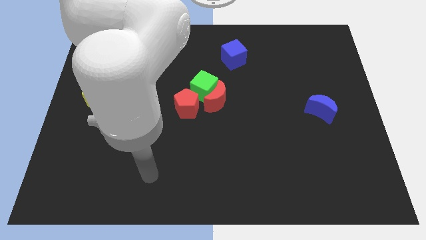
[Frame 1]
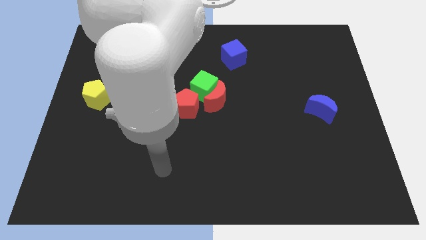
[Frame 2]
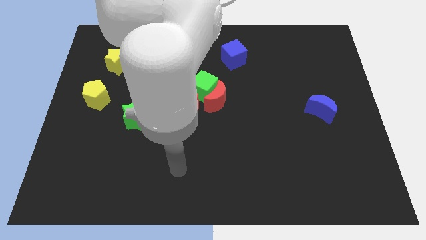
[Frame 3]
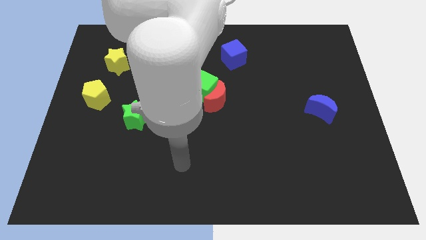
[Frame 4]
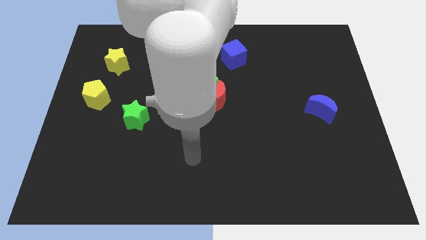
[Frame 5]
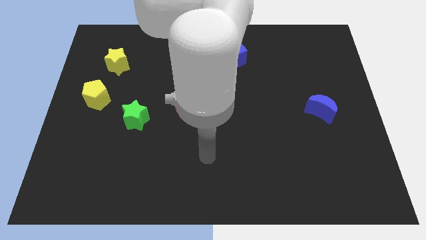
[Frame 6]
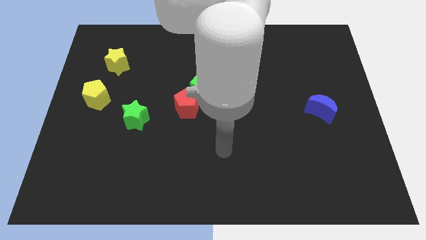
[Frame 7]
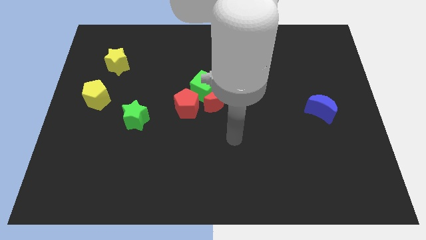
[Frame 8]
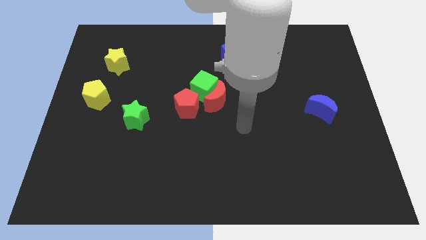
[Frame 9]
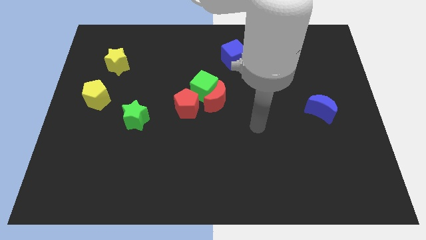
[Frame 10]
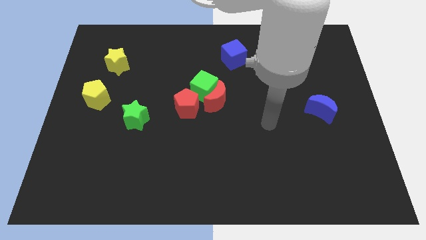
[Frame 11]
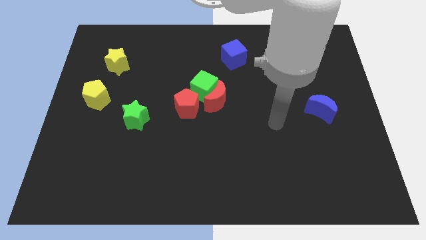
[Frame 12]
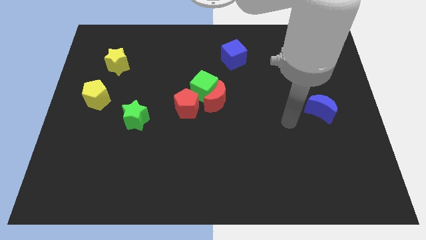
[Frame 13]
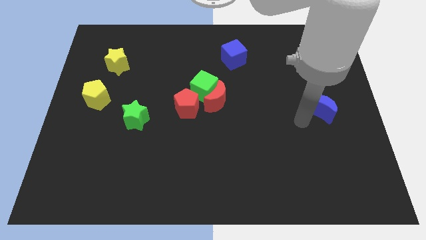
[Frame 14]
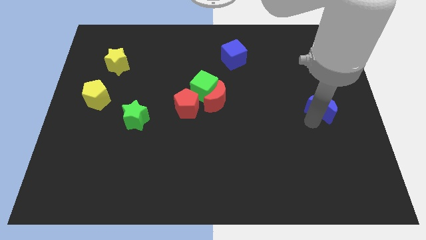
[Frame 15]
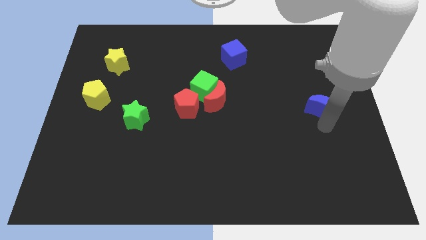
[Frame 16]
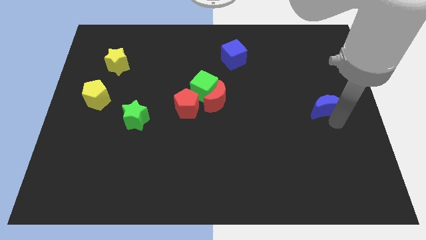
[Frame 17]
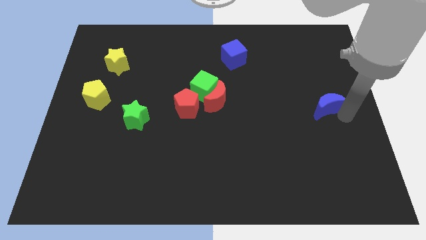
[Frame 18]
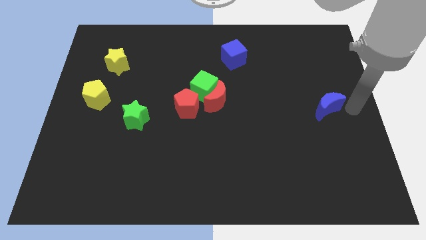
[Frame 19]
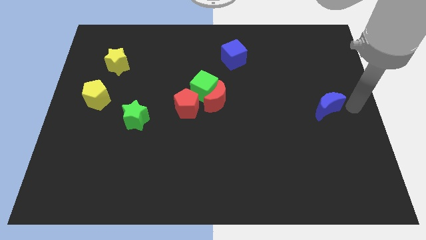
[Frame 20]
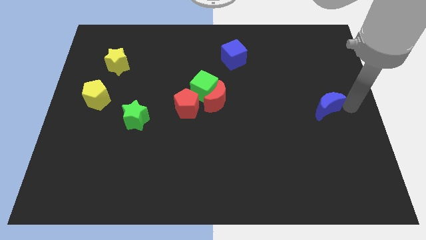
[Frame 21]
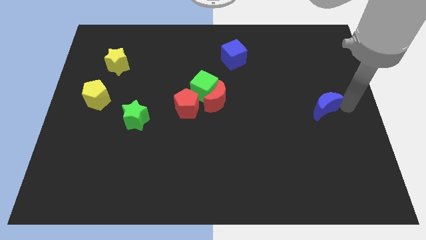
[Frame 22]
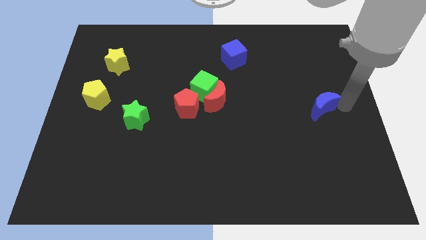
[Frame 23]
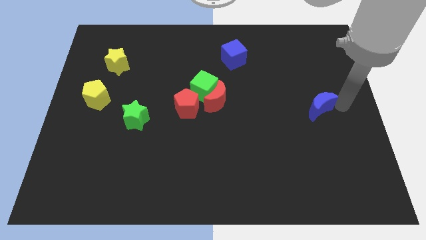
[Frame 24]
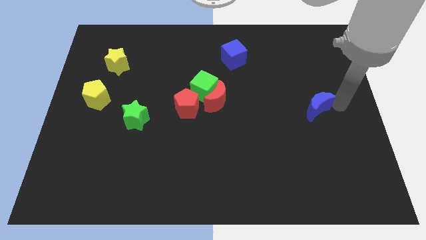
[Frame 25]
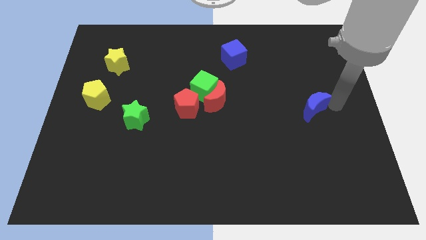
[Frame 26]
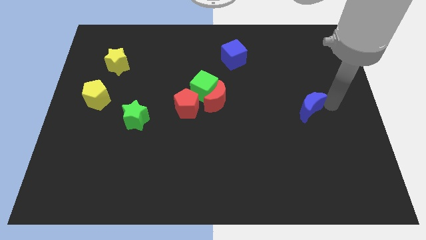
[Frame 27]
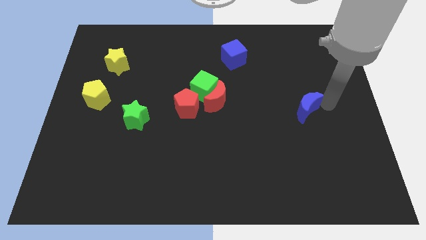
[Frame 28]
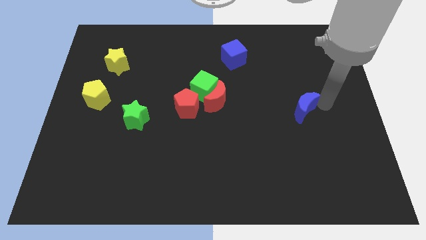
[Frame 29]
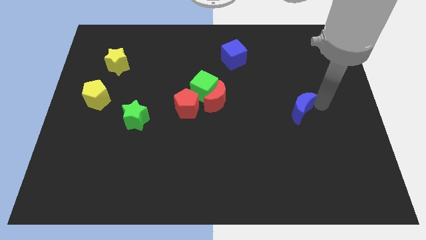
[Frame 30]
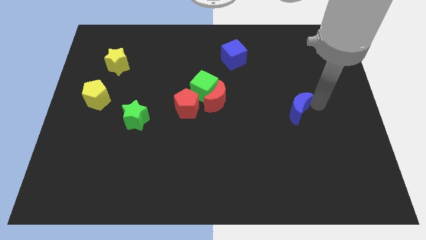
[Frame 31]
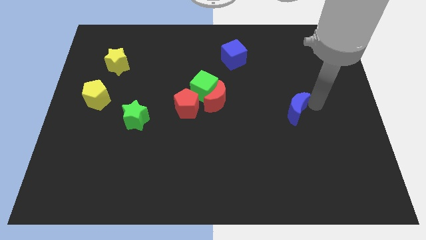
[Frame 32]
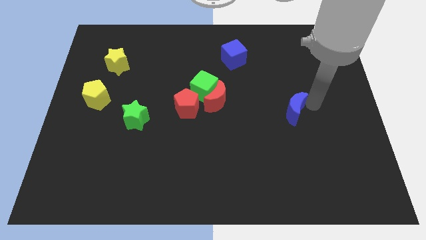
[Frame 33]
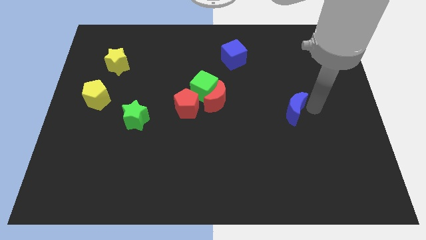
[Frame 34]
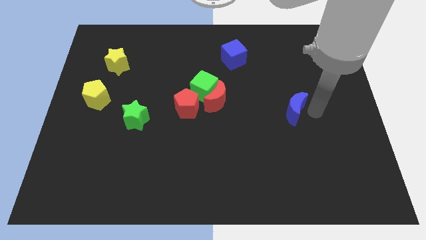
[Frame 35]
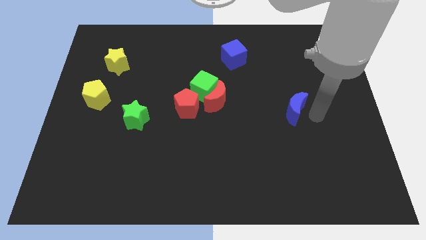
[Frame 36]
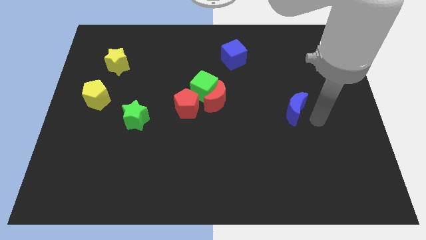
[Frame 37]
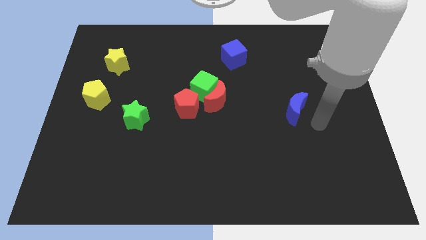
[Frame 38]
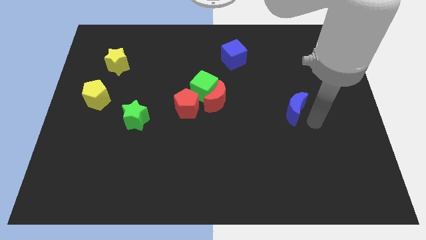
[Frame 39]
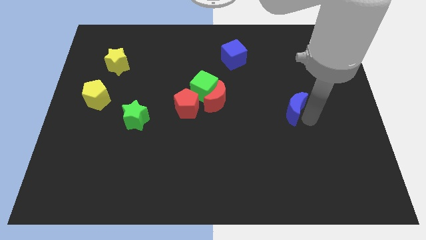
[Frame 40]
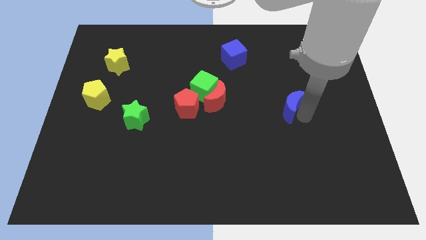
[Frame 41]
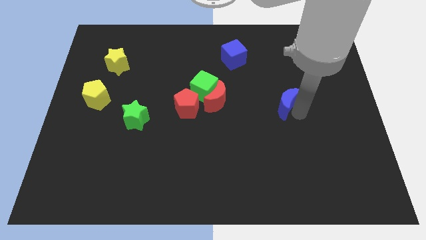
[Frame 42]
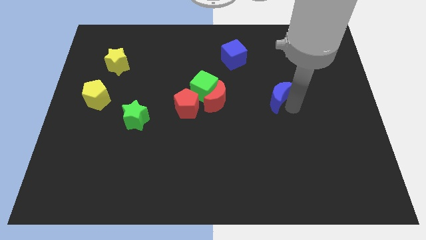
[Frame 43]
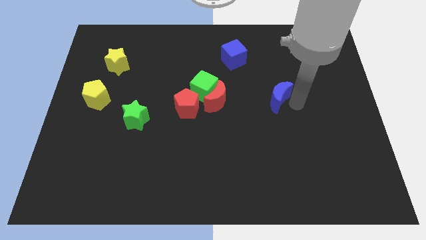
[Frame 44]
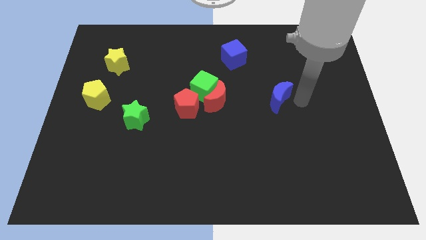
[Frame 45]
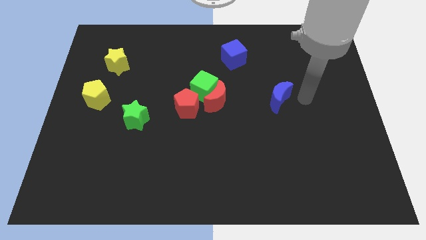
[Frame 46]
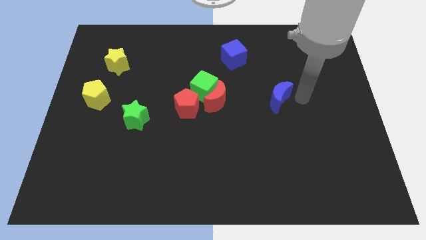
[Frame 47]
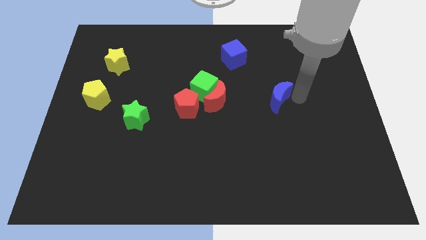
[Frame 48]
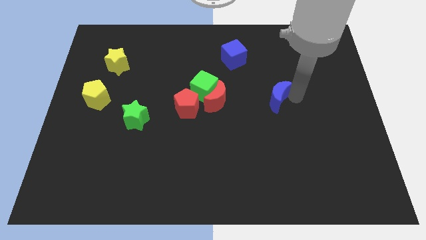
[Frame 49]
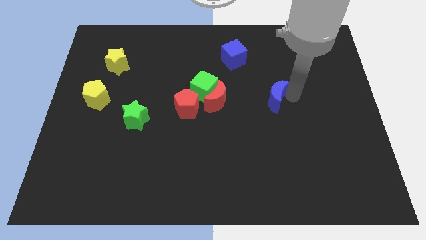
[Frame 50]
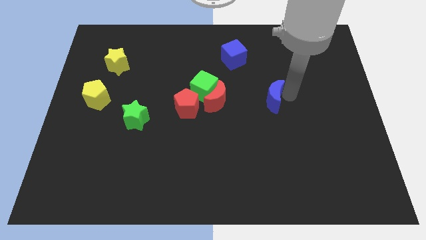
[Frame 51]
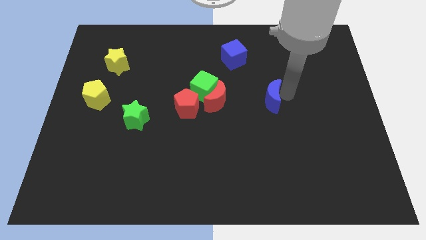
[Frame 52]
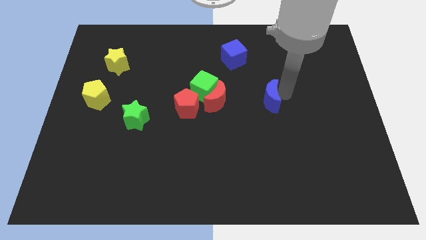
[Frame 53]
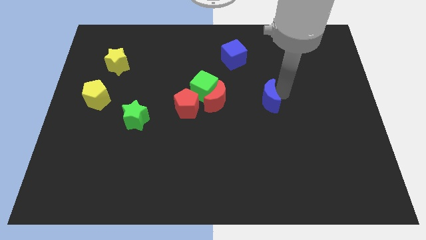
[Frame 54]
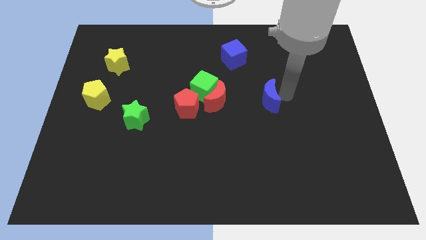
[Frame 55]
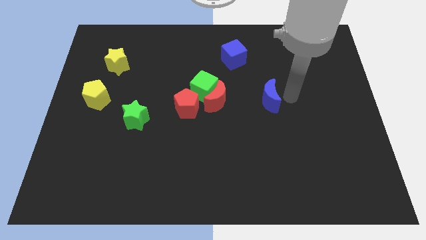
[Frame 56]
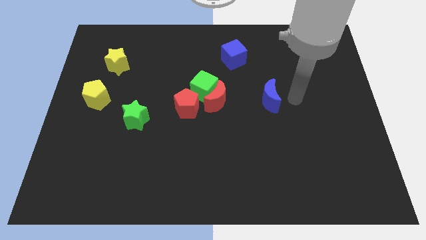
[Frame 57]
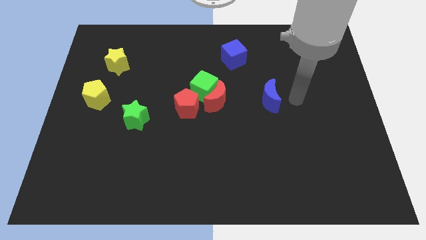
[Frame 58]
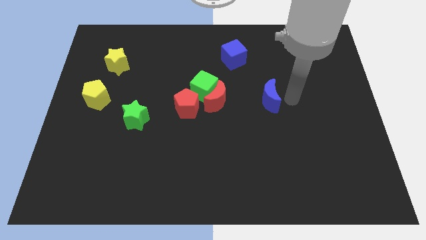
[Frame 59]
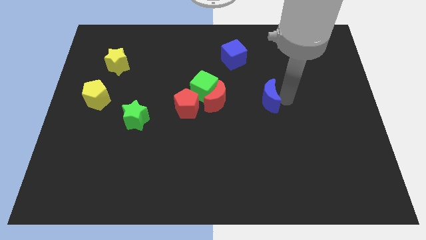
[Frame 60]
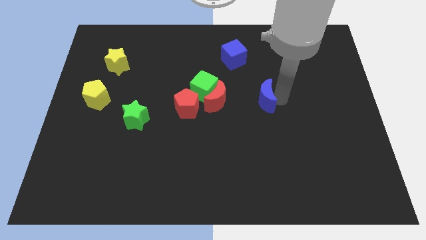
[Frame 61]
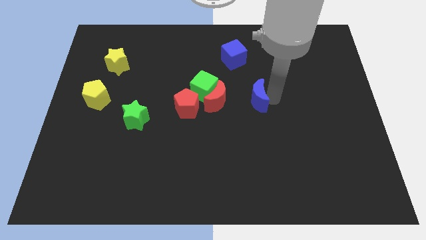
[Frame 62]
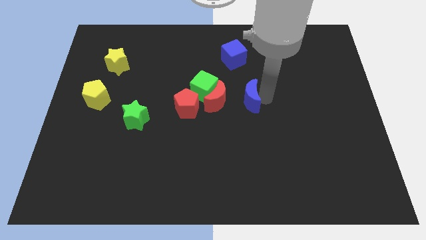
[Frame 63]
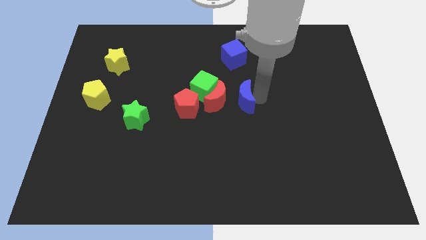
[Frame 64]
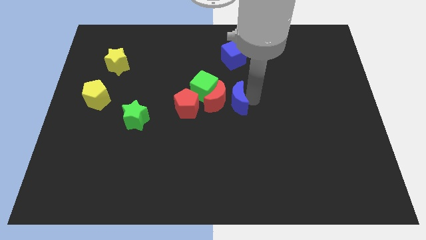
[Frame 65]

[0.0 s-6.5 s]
push the blue moon to the red moon

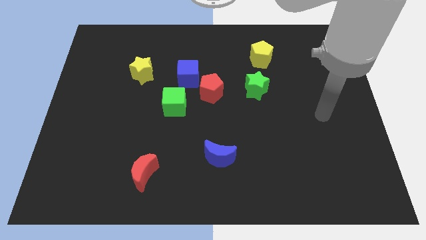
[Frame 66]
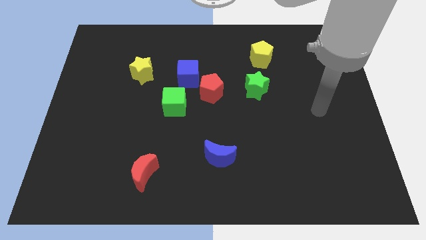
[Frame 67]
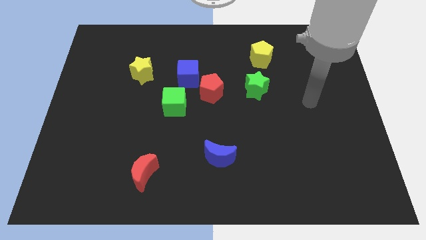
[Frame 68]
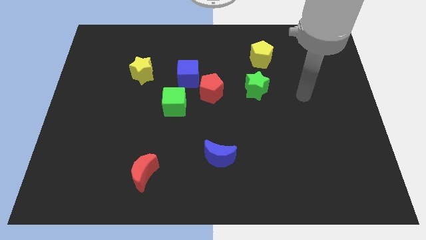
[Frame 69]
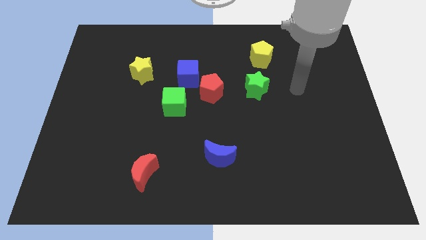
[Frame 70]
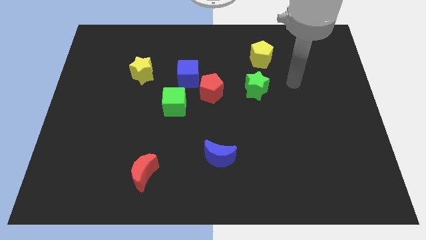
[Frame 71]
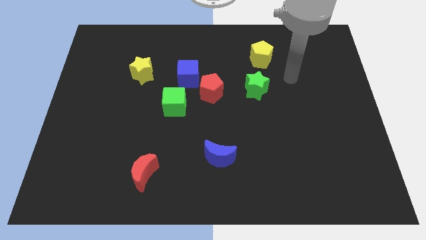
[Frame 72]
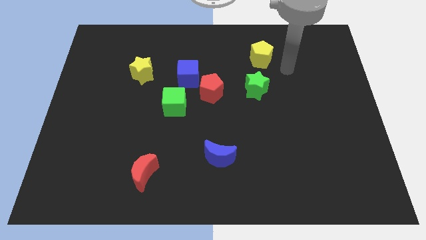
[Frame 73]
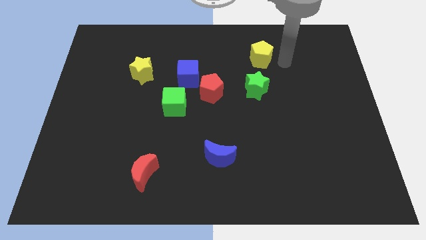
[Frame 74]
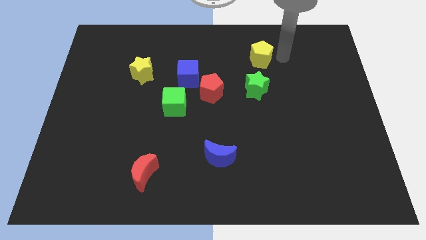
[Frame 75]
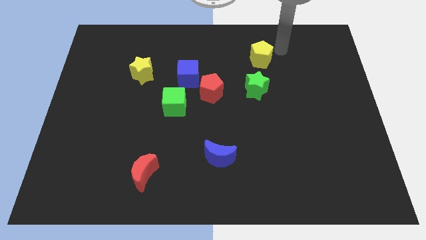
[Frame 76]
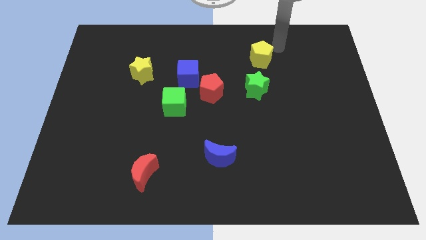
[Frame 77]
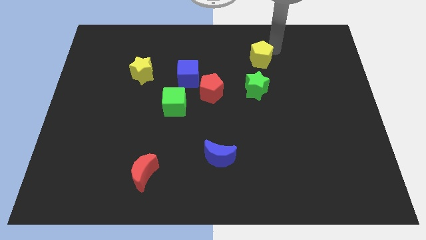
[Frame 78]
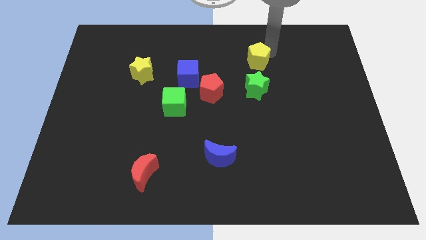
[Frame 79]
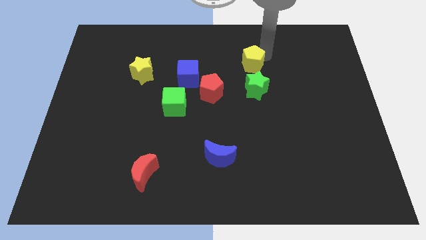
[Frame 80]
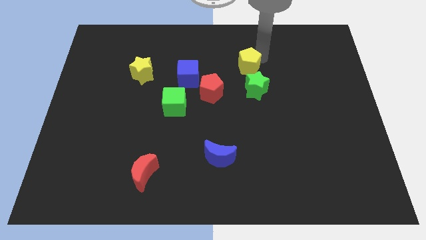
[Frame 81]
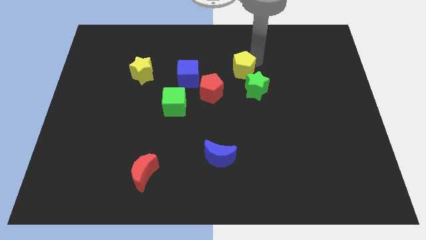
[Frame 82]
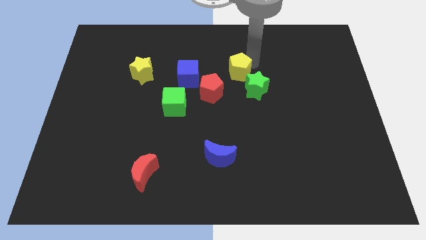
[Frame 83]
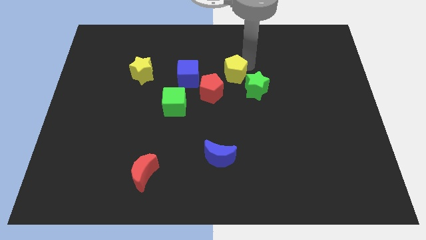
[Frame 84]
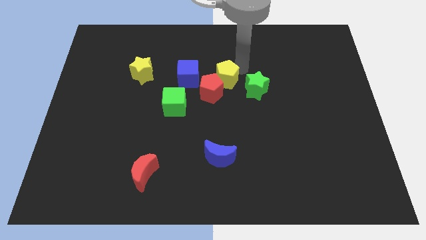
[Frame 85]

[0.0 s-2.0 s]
push the yellow pentagon next to the red pentagon
